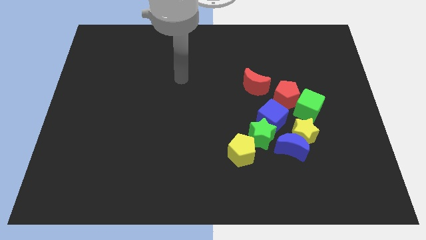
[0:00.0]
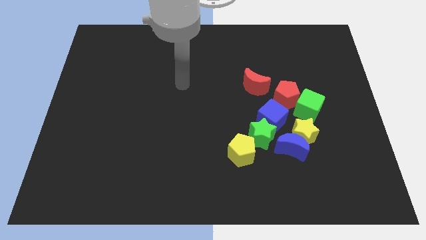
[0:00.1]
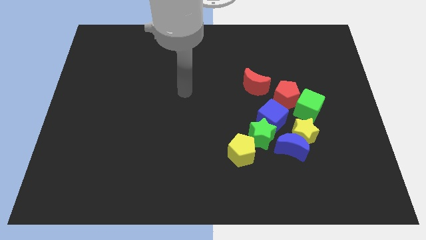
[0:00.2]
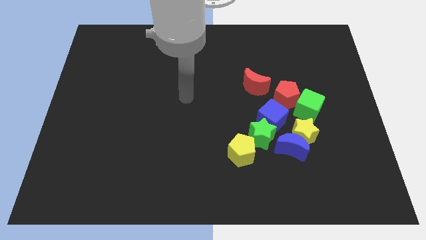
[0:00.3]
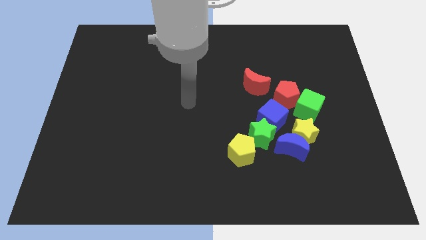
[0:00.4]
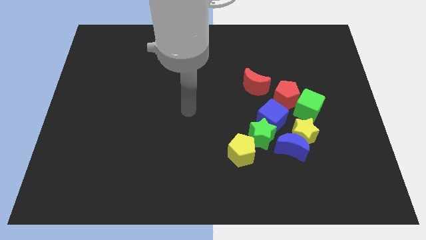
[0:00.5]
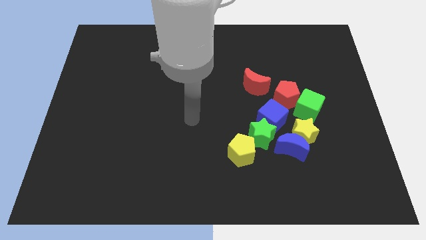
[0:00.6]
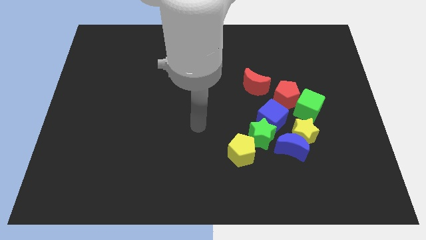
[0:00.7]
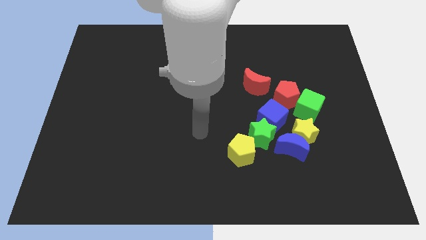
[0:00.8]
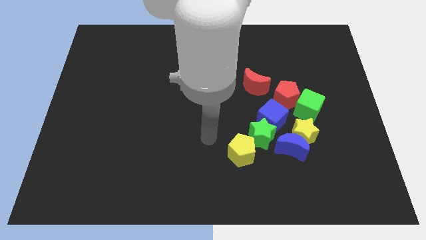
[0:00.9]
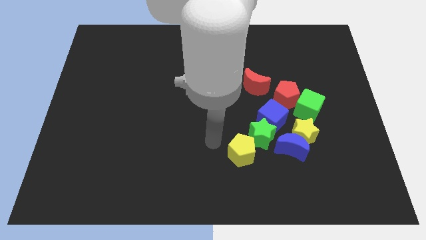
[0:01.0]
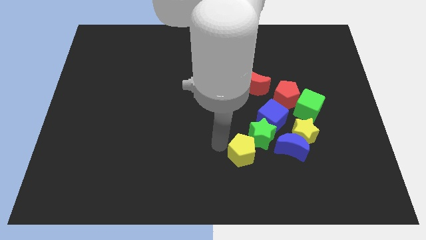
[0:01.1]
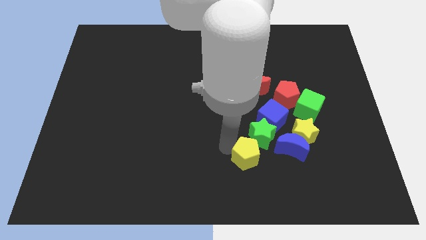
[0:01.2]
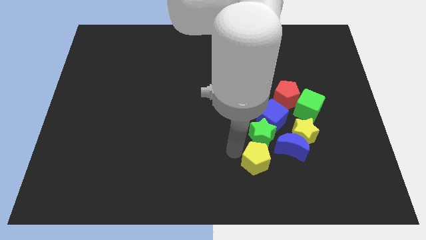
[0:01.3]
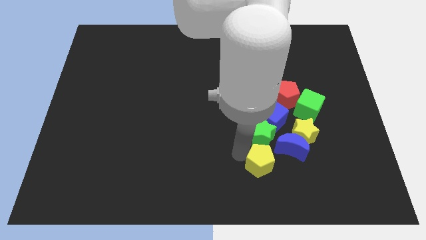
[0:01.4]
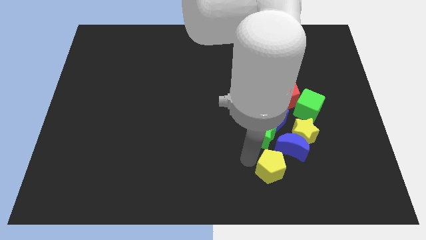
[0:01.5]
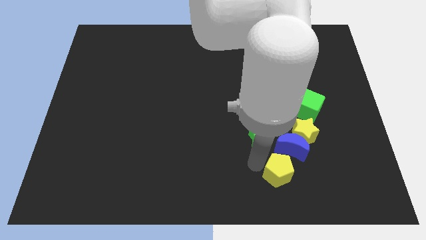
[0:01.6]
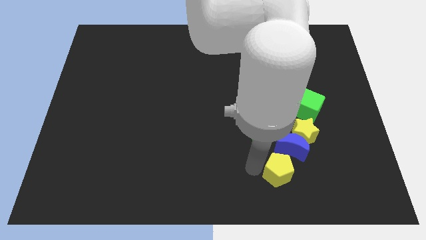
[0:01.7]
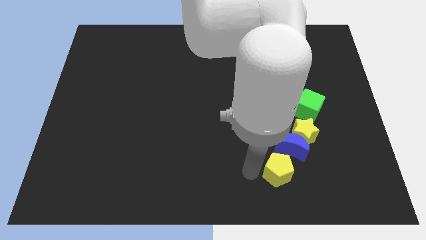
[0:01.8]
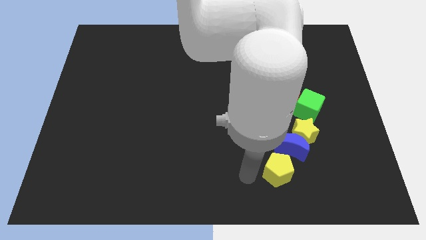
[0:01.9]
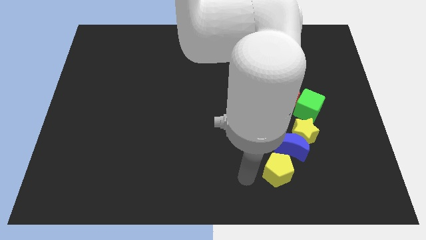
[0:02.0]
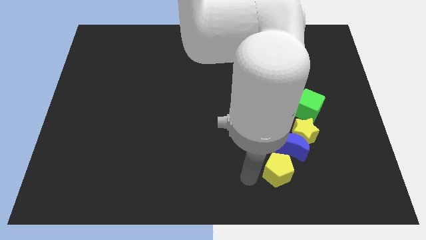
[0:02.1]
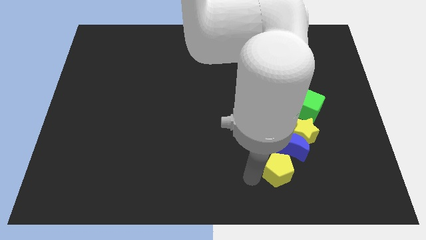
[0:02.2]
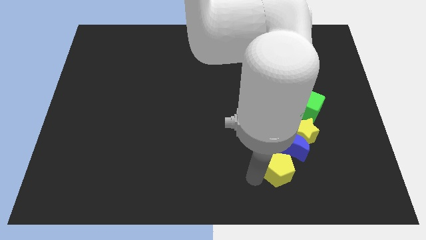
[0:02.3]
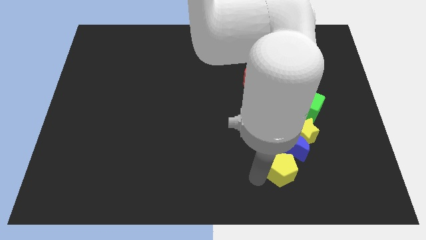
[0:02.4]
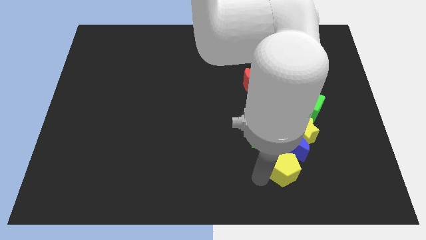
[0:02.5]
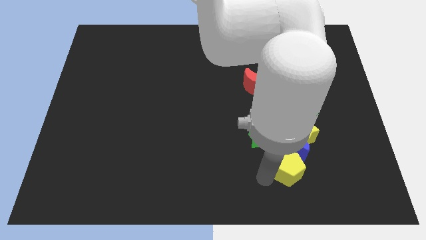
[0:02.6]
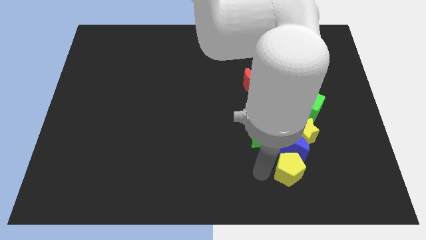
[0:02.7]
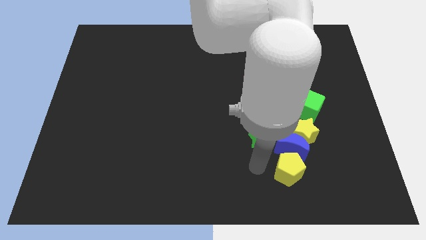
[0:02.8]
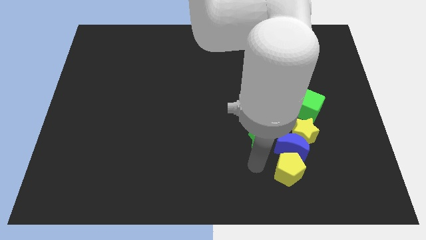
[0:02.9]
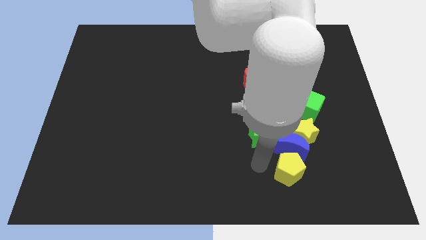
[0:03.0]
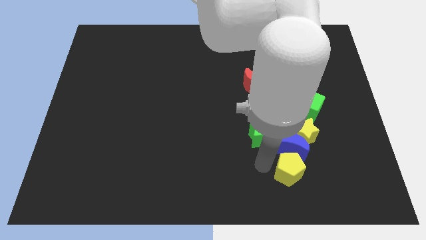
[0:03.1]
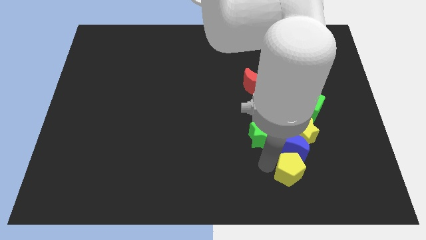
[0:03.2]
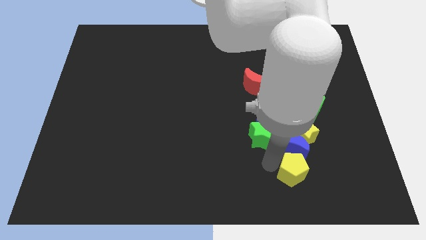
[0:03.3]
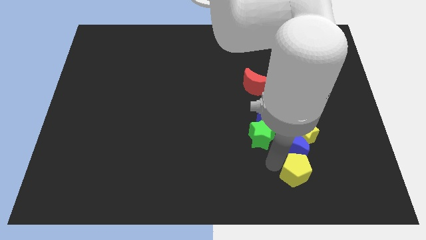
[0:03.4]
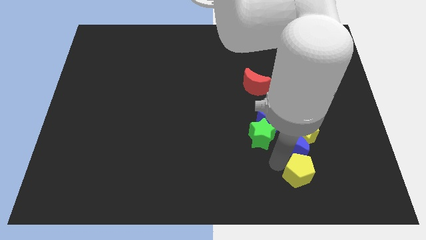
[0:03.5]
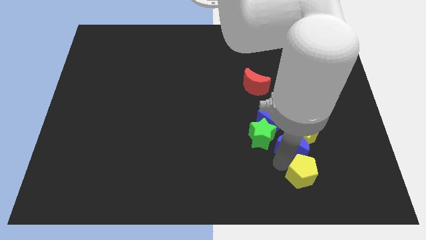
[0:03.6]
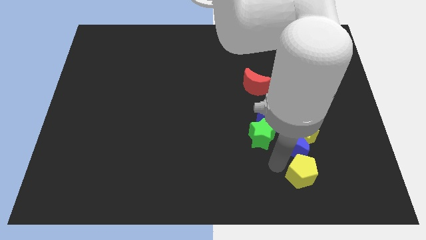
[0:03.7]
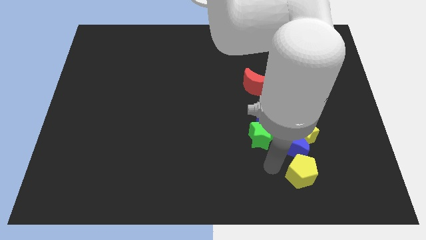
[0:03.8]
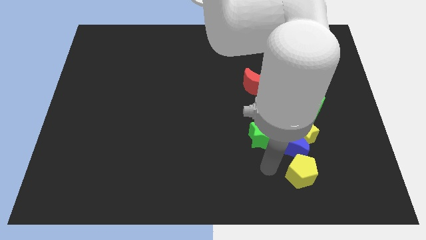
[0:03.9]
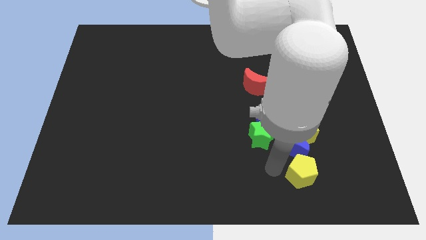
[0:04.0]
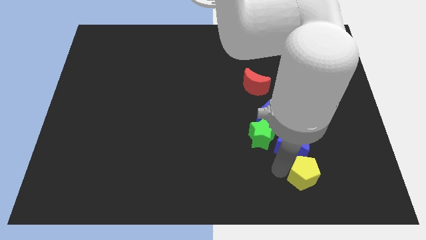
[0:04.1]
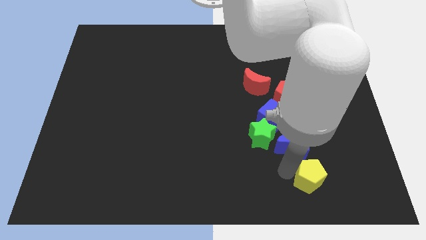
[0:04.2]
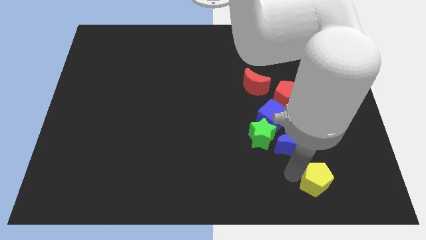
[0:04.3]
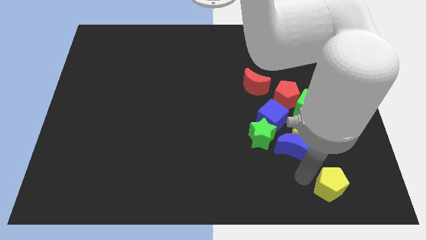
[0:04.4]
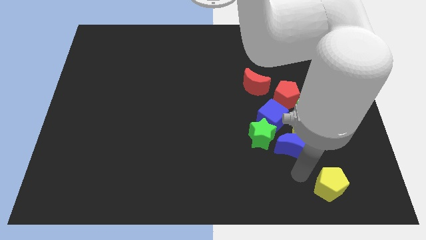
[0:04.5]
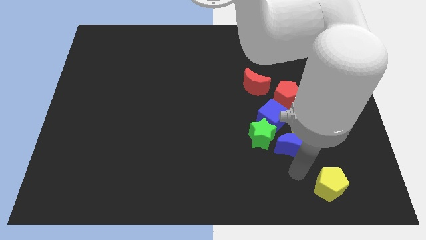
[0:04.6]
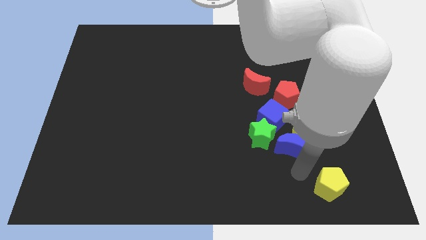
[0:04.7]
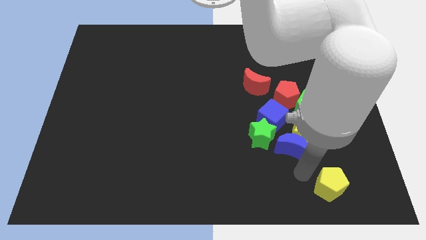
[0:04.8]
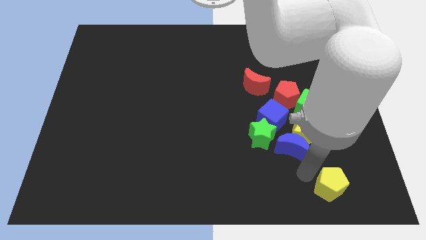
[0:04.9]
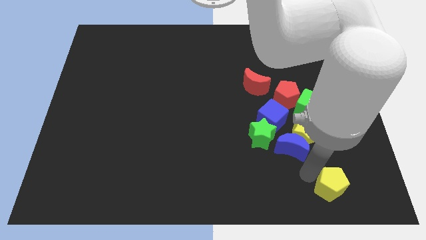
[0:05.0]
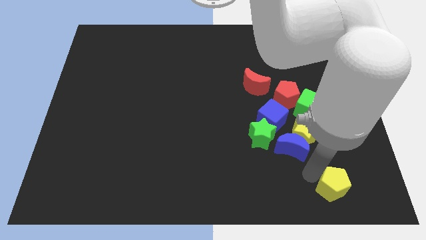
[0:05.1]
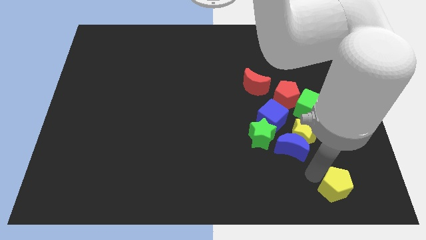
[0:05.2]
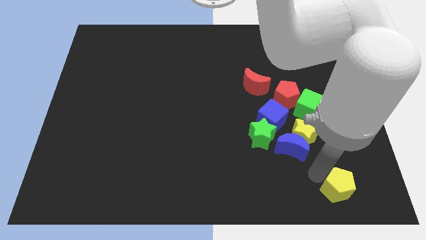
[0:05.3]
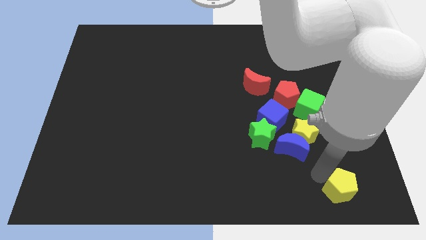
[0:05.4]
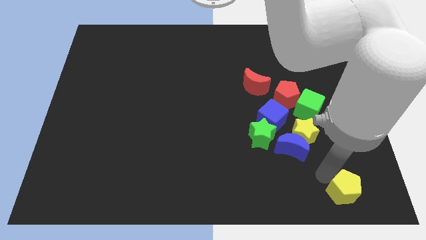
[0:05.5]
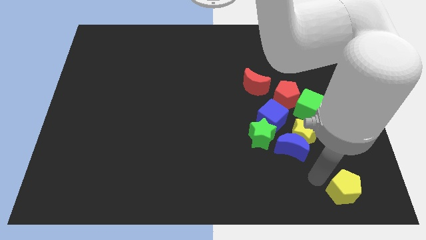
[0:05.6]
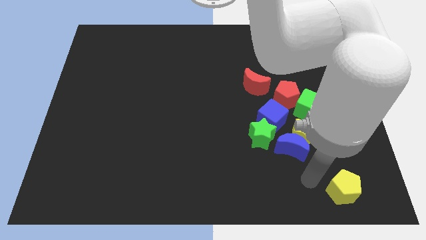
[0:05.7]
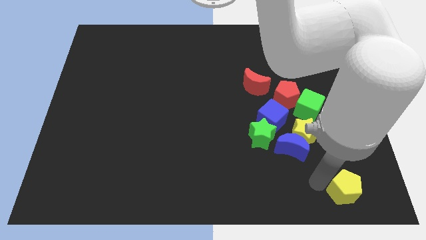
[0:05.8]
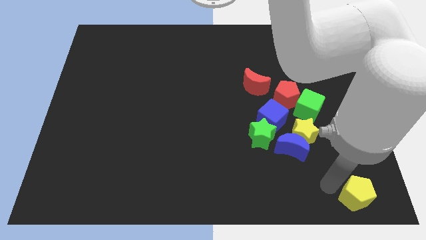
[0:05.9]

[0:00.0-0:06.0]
slide the yellow pentagon to the lower right corner
